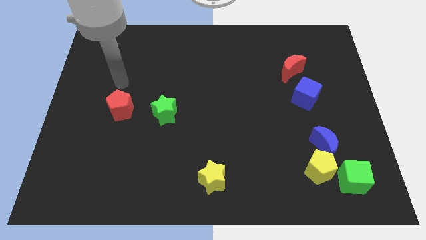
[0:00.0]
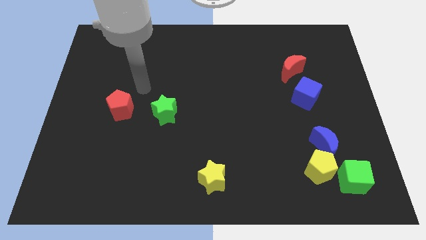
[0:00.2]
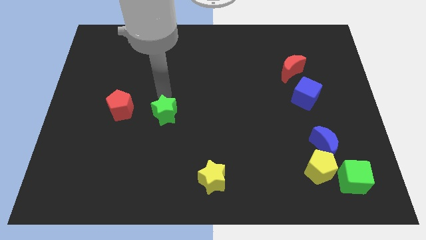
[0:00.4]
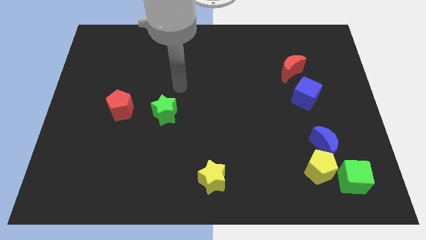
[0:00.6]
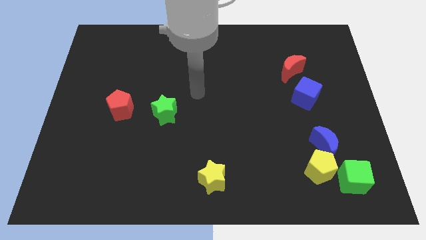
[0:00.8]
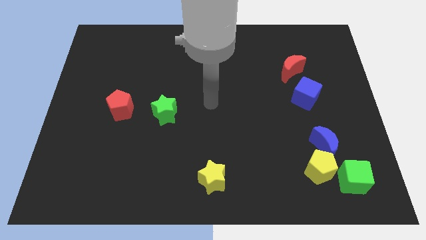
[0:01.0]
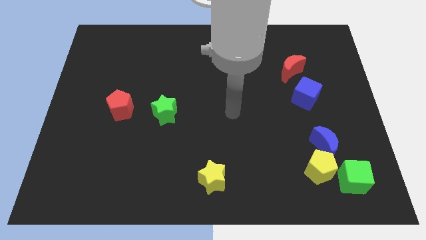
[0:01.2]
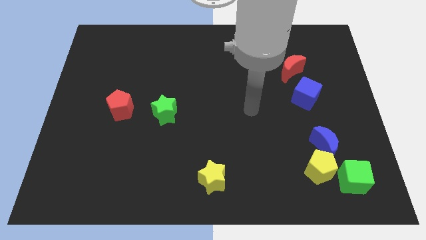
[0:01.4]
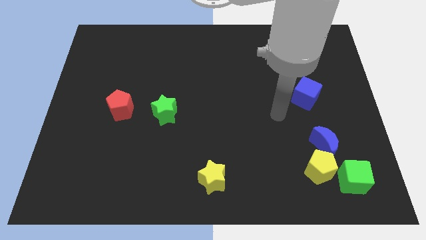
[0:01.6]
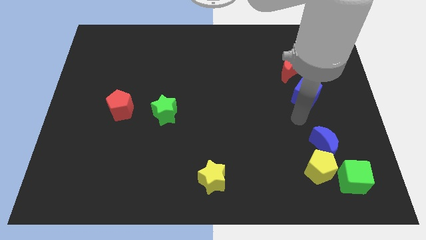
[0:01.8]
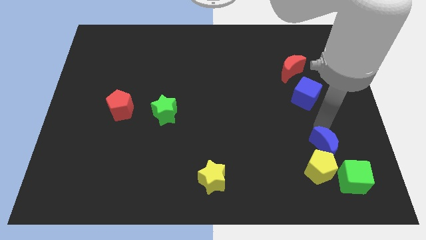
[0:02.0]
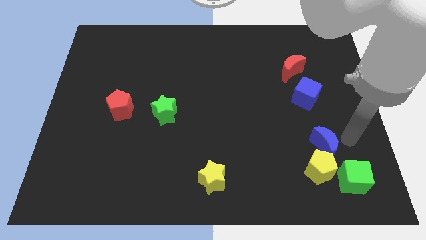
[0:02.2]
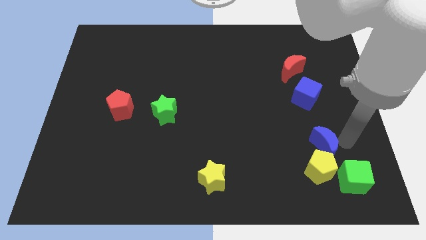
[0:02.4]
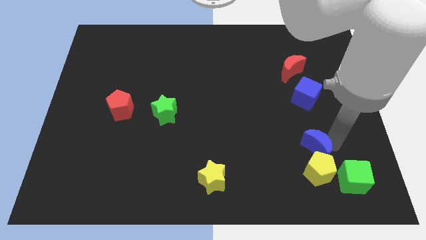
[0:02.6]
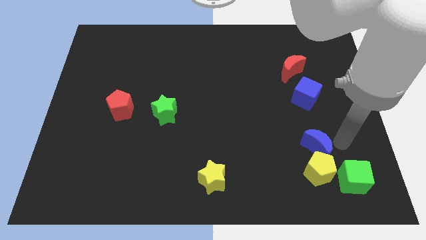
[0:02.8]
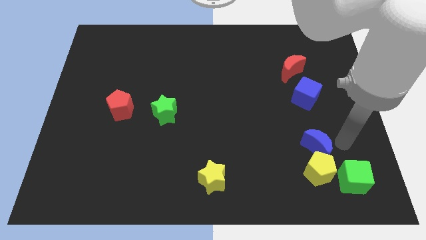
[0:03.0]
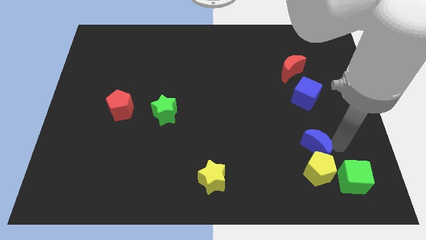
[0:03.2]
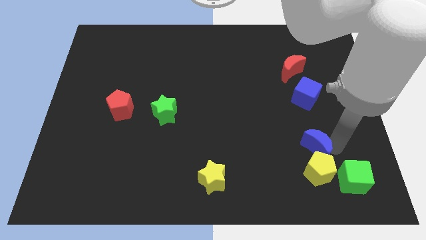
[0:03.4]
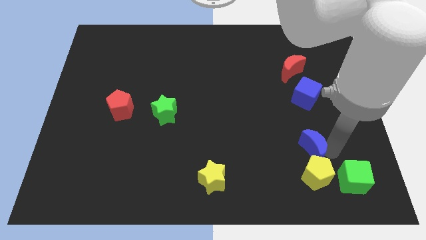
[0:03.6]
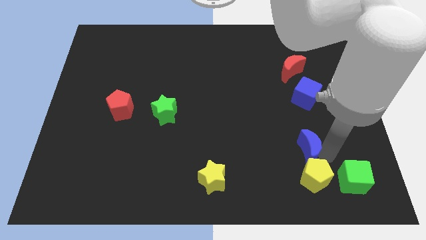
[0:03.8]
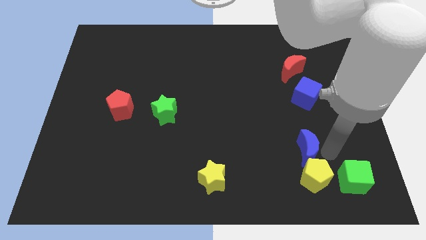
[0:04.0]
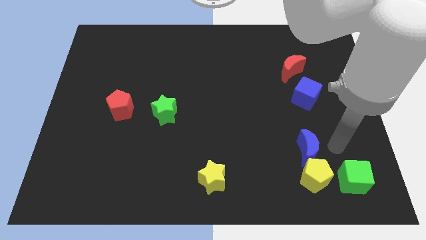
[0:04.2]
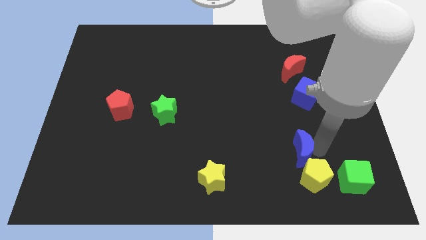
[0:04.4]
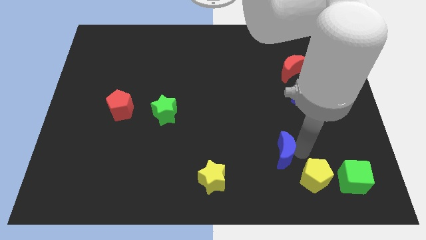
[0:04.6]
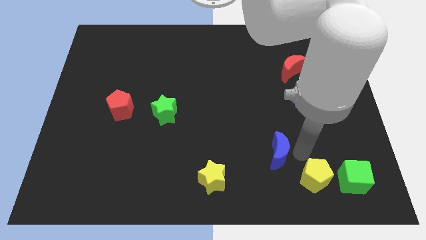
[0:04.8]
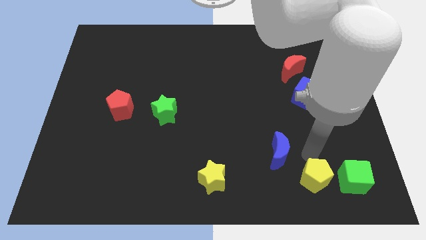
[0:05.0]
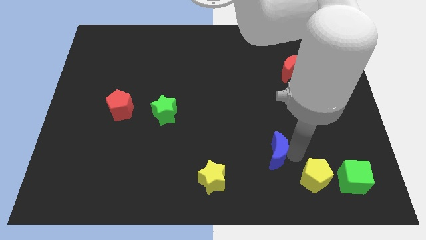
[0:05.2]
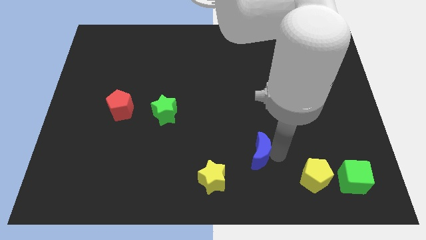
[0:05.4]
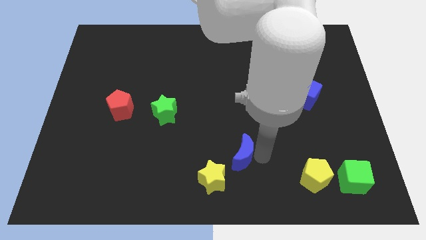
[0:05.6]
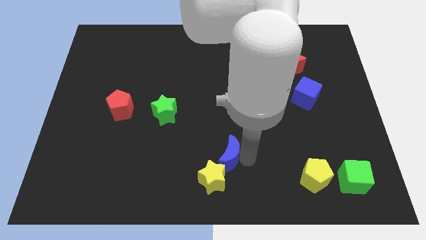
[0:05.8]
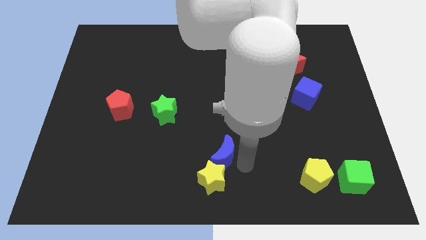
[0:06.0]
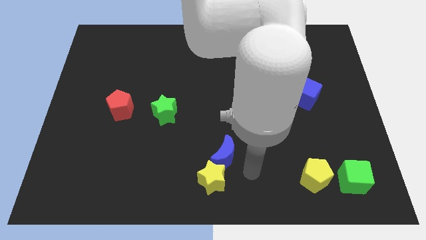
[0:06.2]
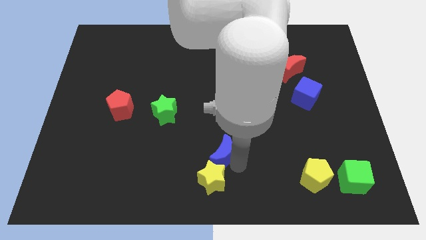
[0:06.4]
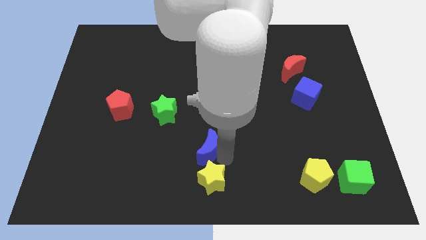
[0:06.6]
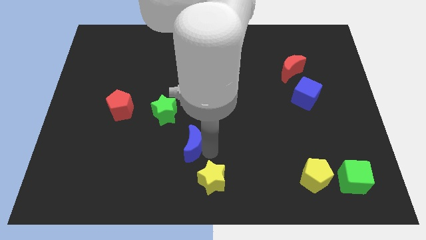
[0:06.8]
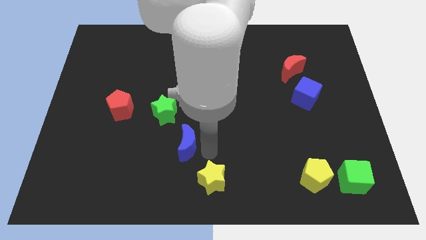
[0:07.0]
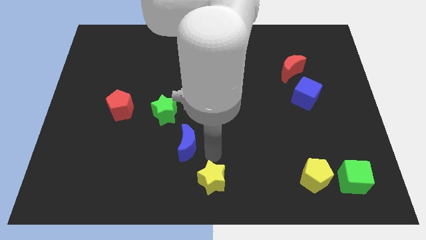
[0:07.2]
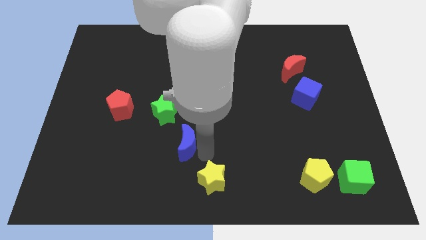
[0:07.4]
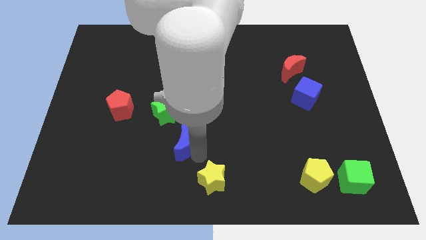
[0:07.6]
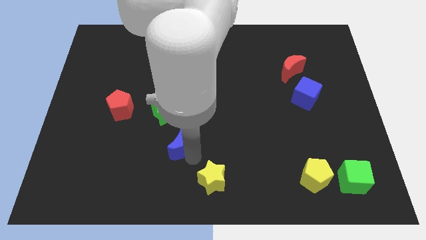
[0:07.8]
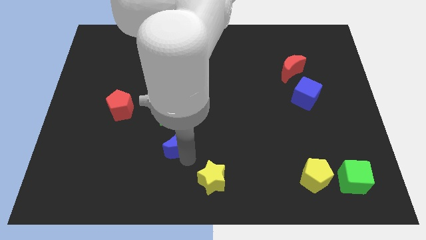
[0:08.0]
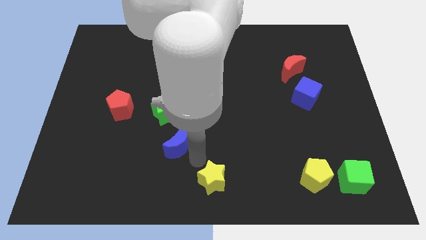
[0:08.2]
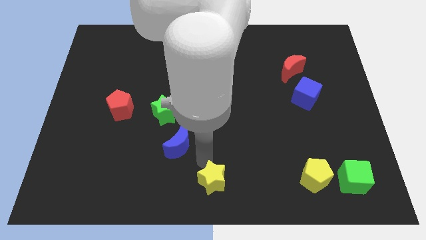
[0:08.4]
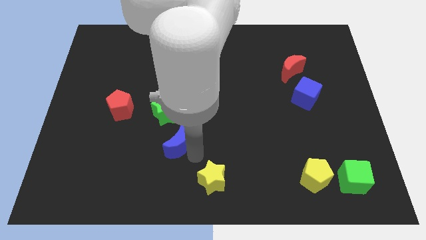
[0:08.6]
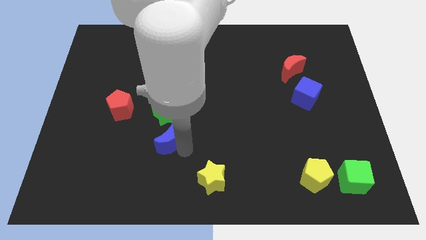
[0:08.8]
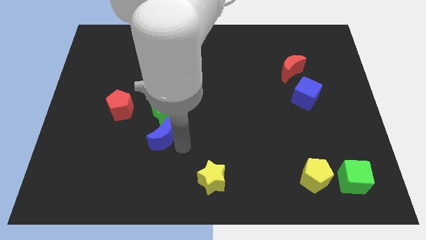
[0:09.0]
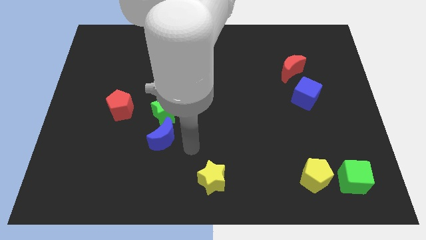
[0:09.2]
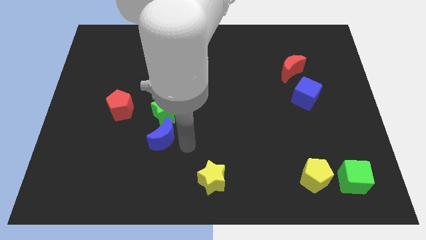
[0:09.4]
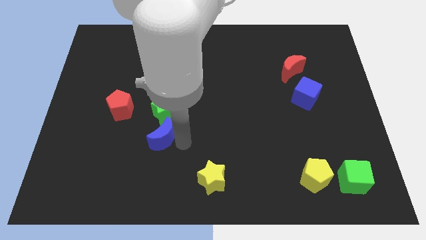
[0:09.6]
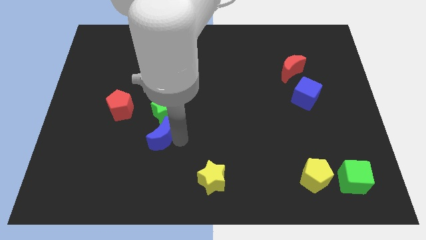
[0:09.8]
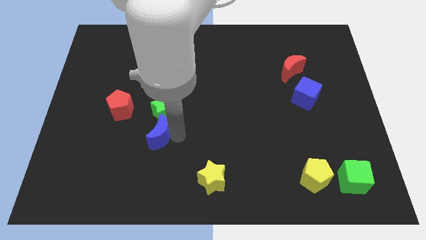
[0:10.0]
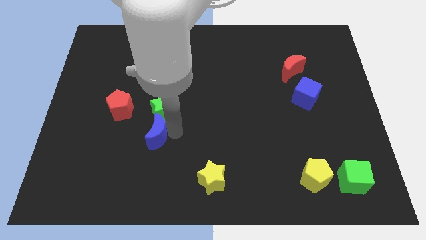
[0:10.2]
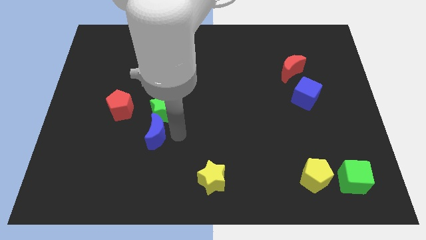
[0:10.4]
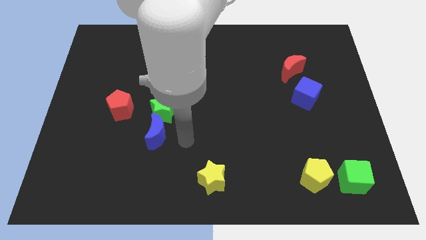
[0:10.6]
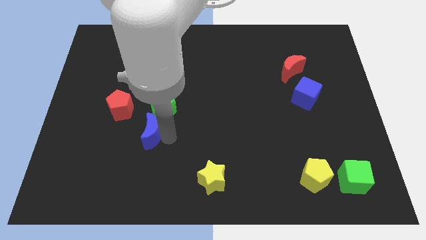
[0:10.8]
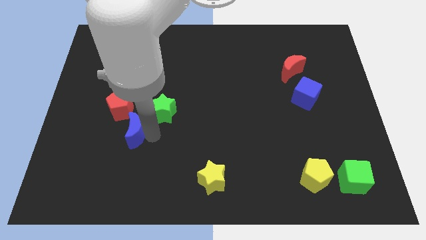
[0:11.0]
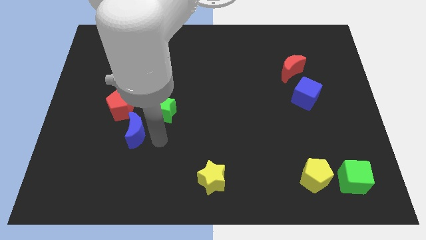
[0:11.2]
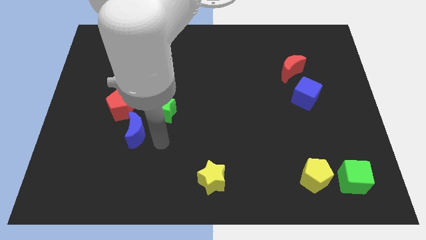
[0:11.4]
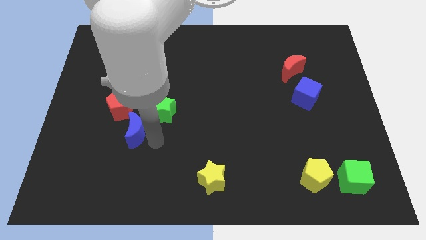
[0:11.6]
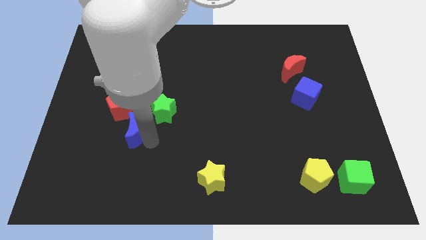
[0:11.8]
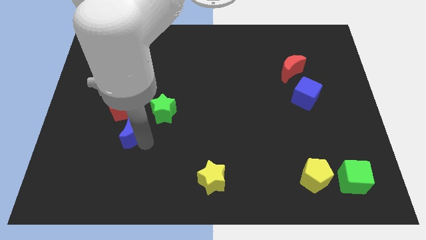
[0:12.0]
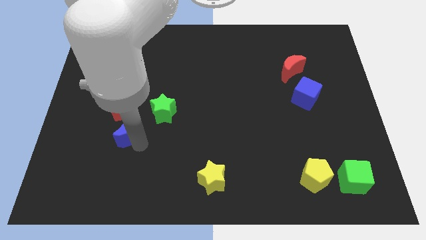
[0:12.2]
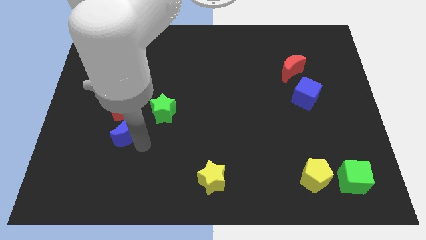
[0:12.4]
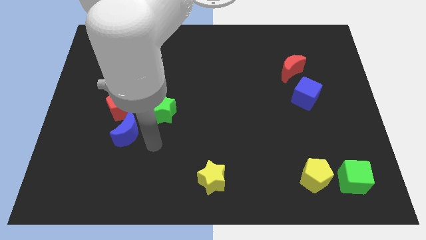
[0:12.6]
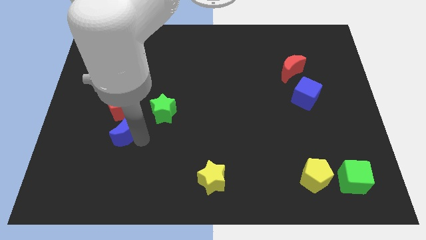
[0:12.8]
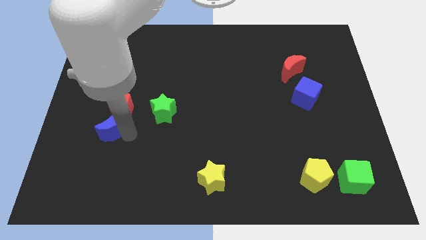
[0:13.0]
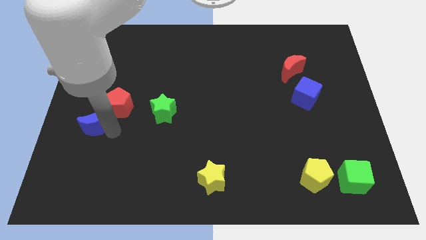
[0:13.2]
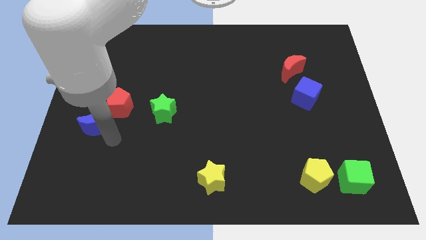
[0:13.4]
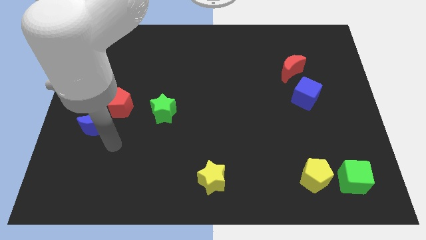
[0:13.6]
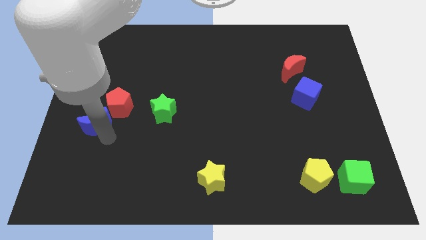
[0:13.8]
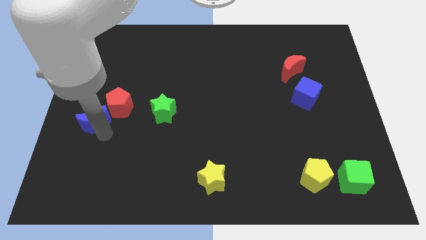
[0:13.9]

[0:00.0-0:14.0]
put the blue moon to the center left

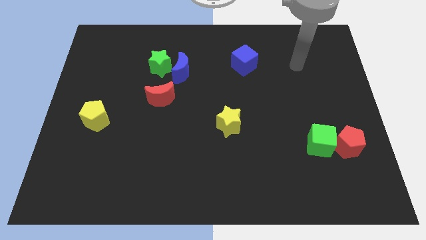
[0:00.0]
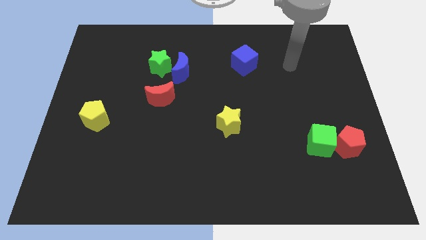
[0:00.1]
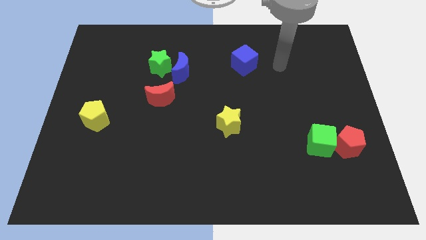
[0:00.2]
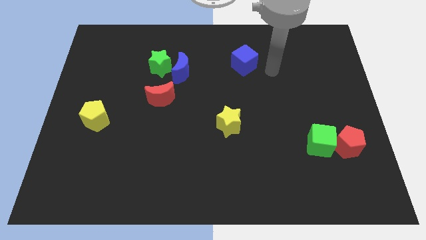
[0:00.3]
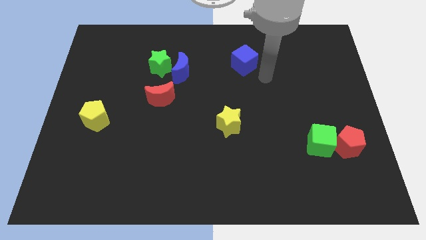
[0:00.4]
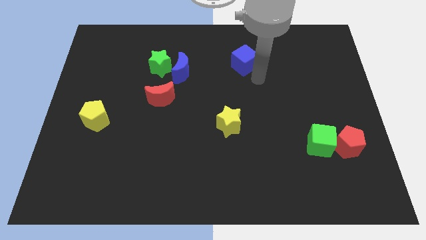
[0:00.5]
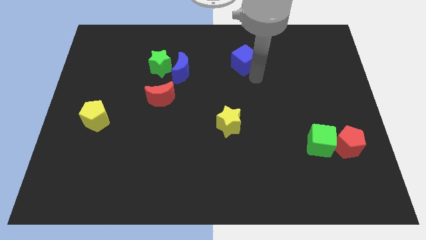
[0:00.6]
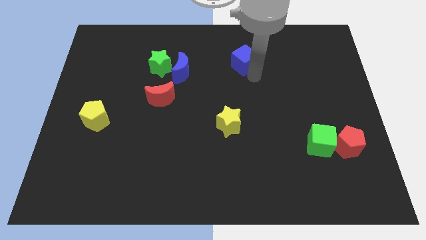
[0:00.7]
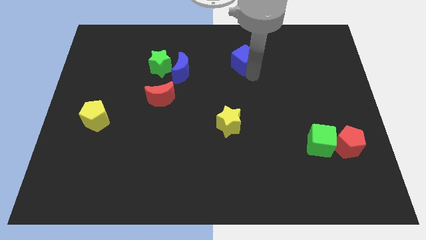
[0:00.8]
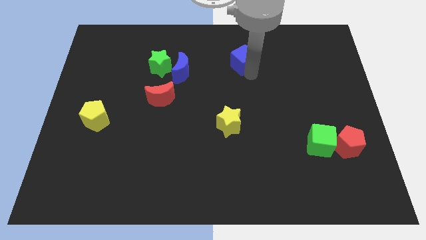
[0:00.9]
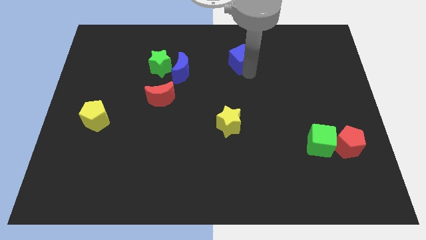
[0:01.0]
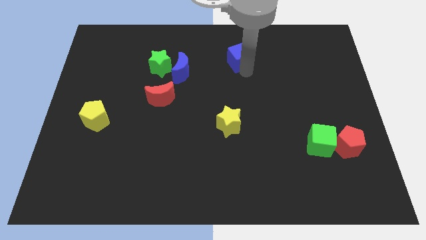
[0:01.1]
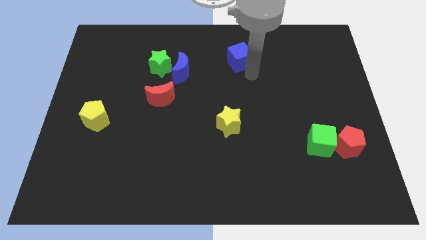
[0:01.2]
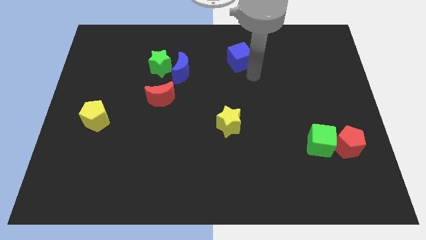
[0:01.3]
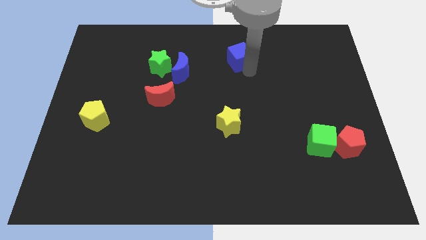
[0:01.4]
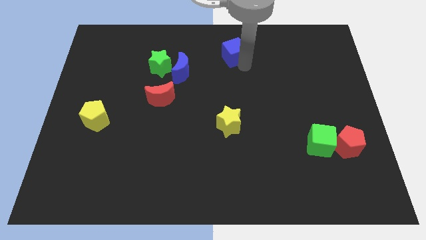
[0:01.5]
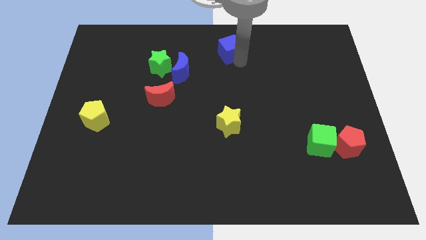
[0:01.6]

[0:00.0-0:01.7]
move the blue cube to the towards your base
